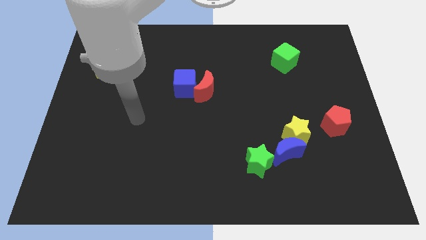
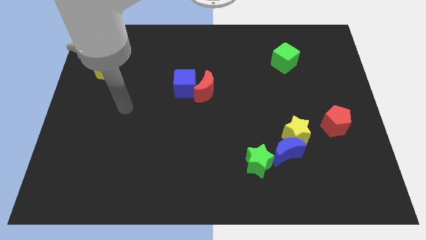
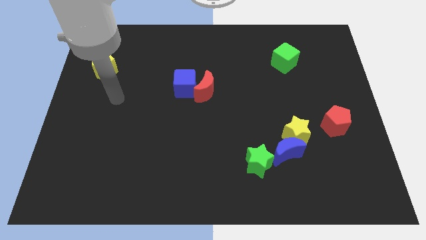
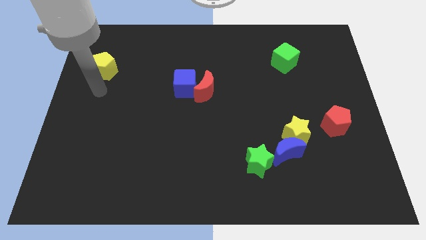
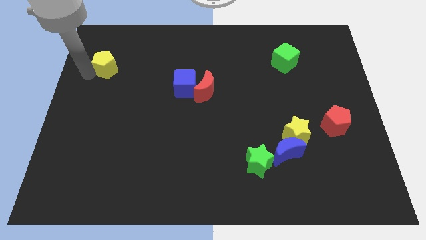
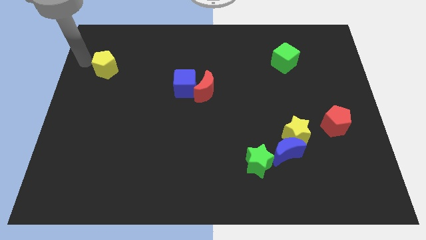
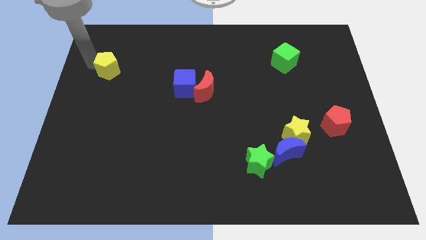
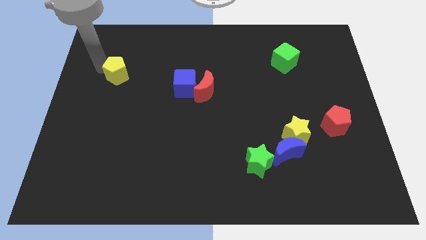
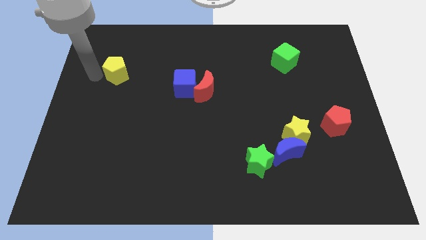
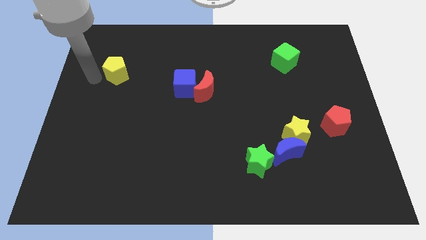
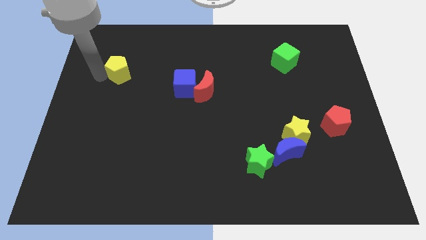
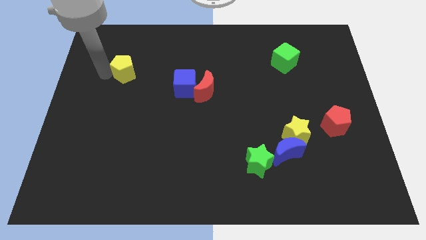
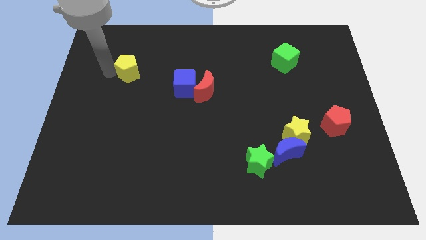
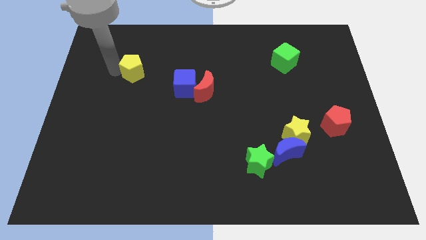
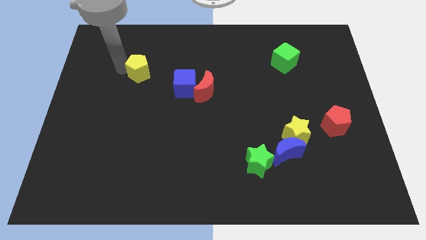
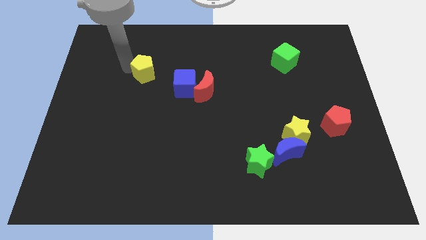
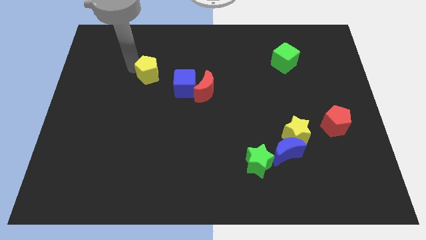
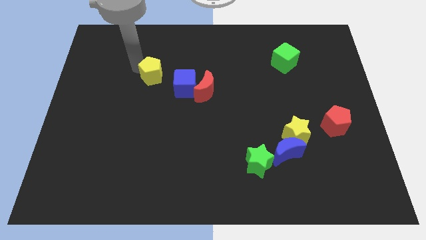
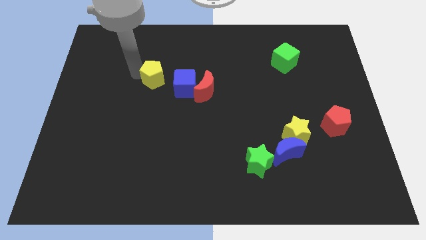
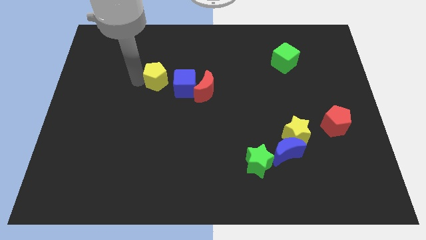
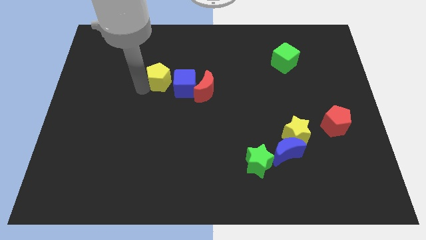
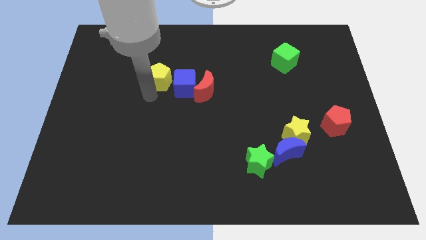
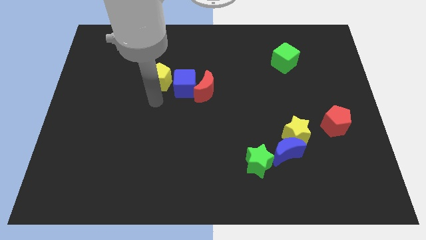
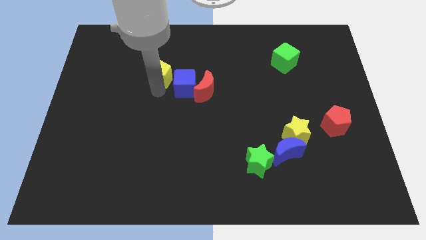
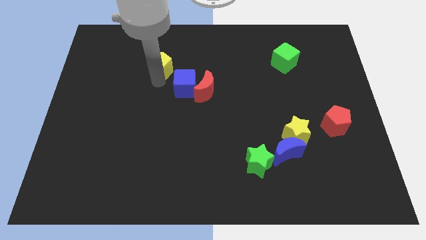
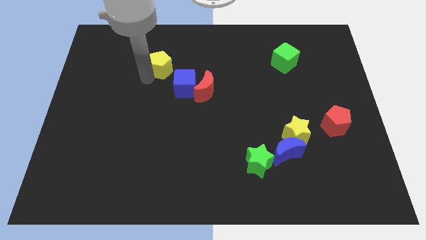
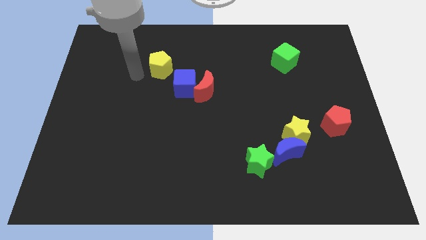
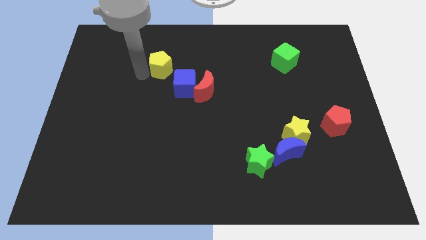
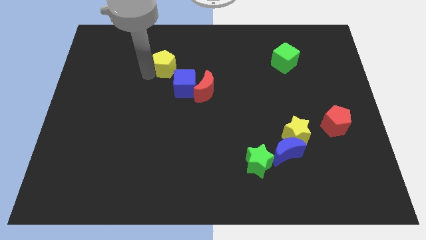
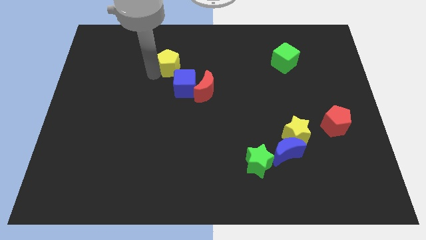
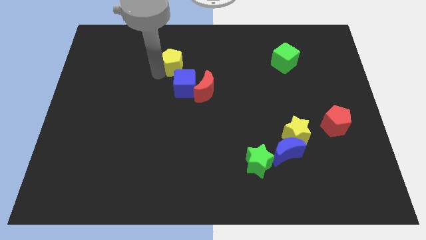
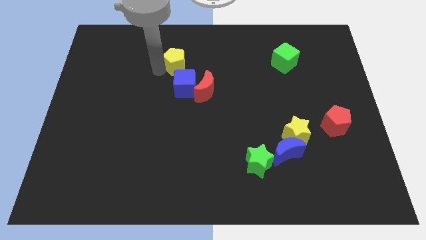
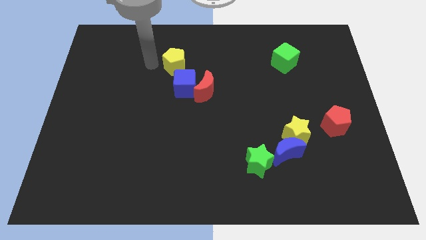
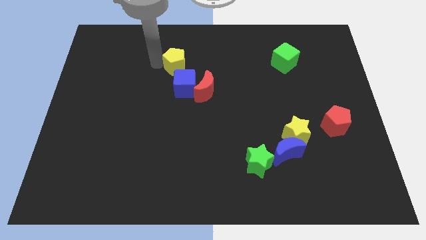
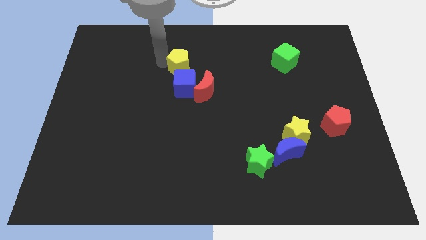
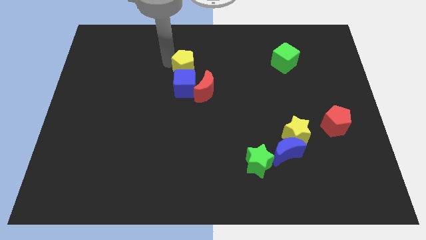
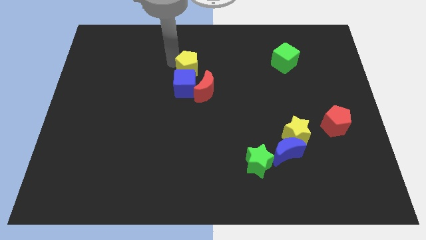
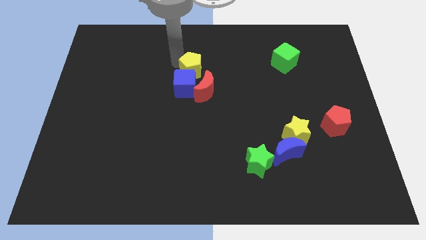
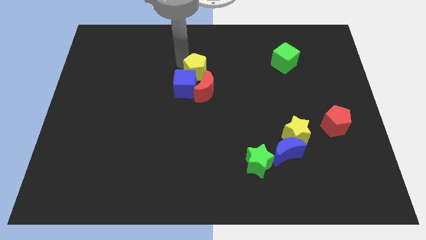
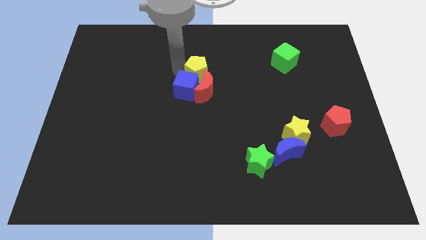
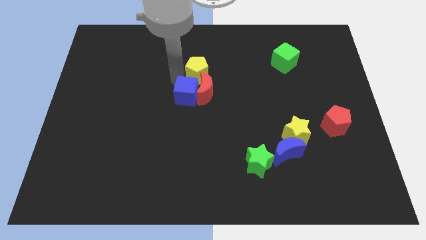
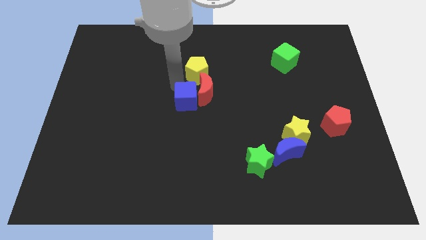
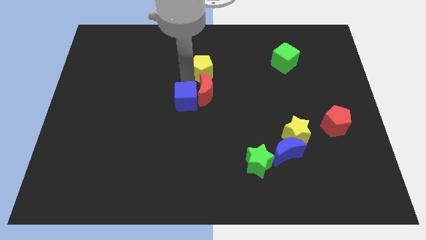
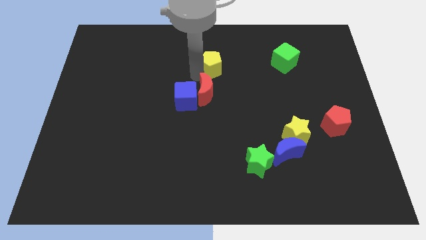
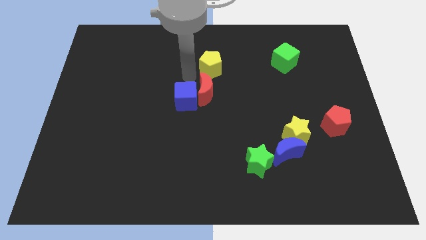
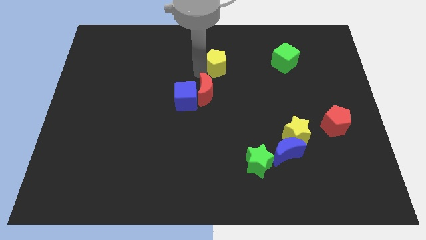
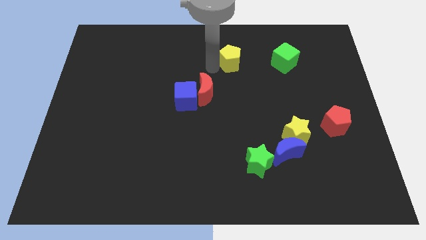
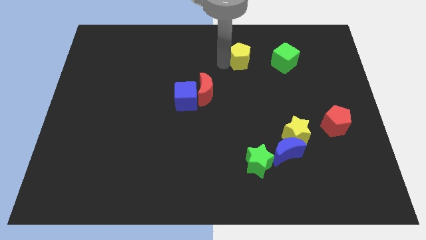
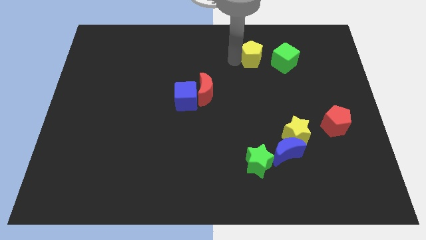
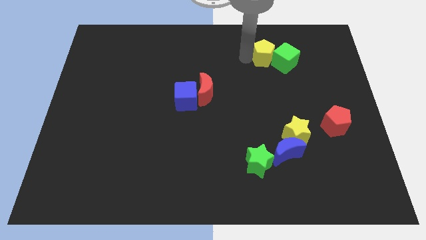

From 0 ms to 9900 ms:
push the yellow pentagon close to the green cube

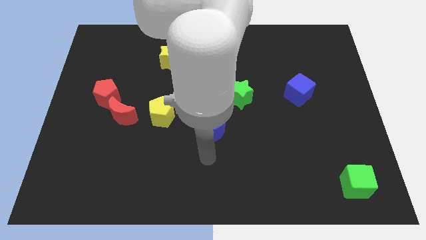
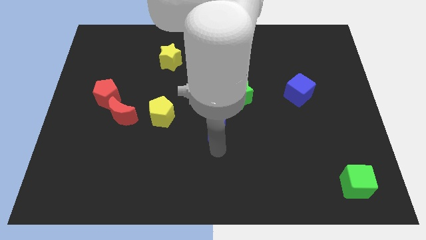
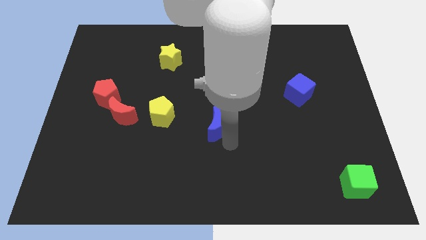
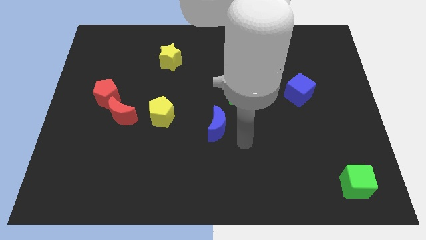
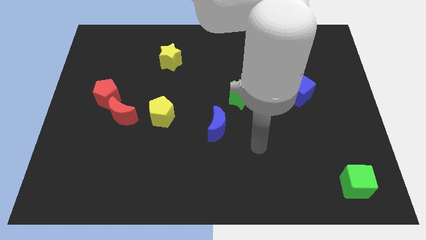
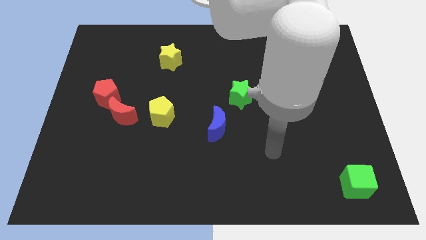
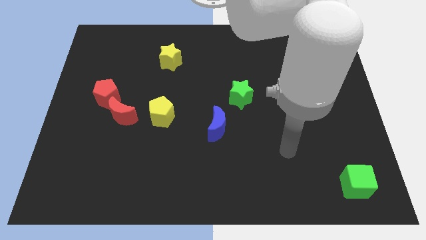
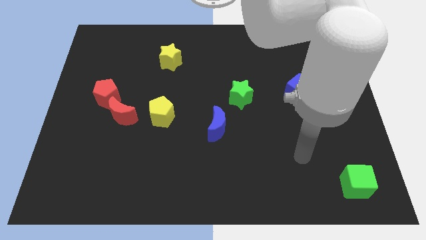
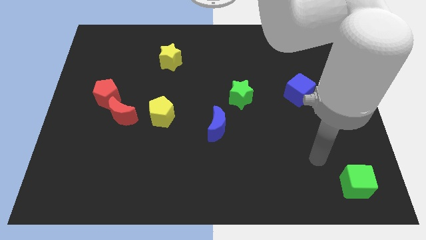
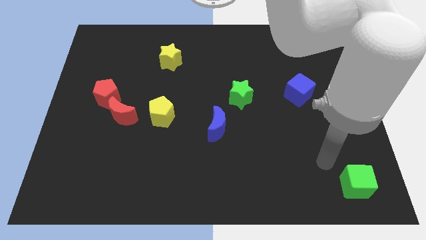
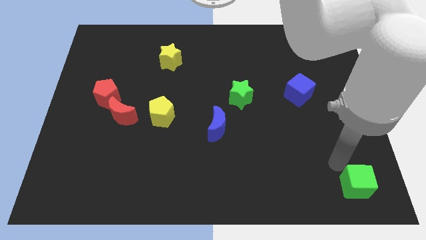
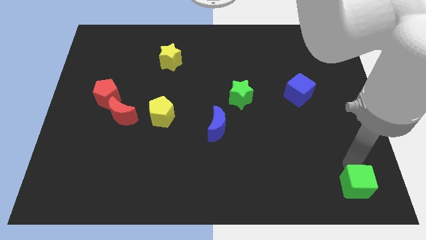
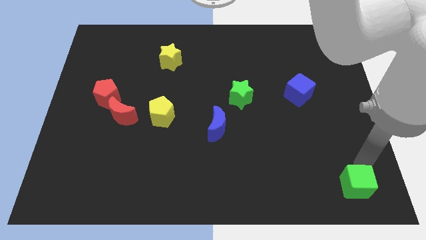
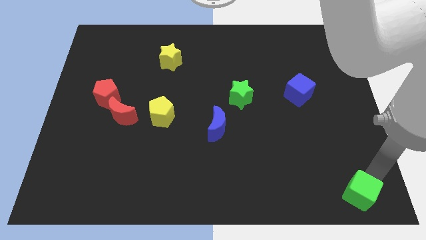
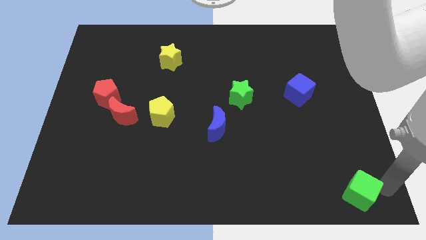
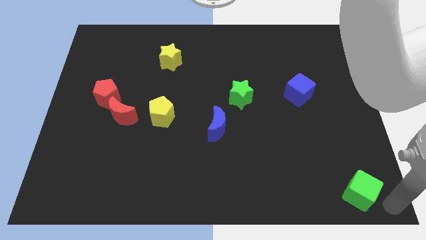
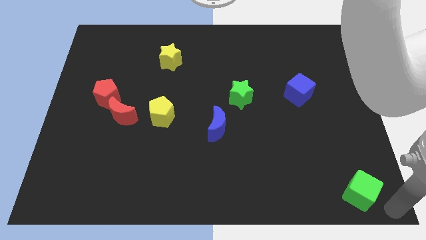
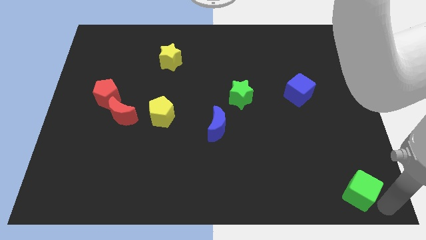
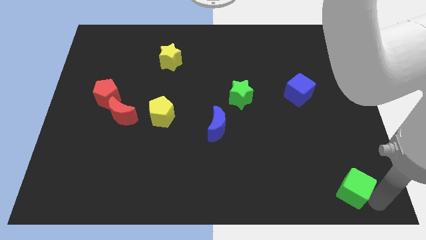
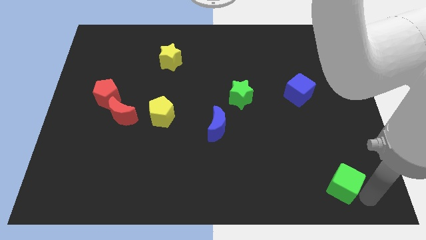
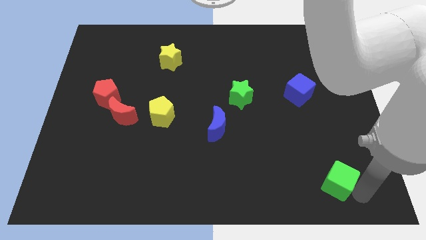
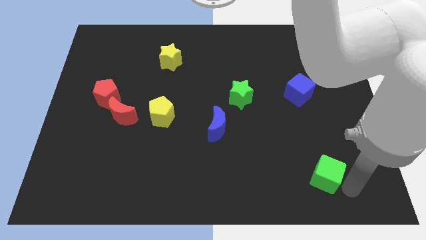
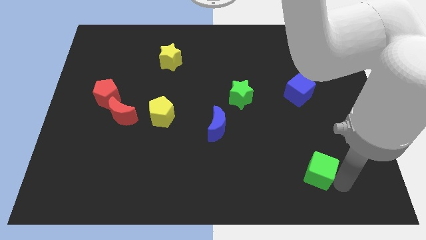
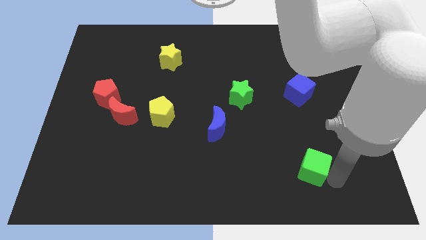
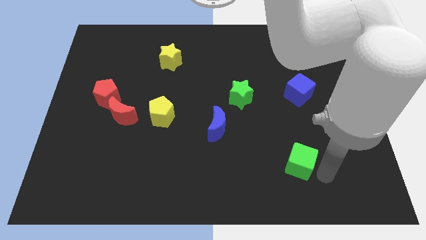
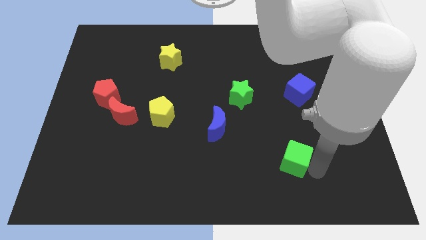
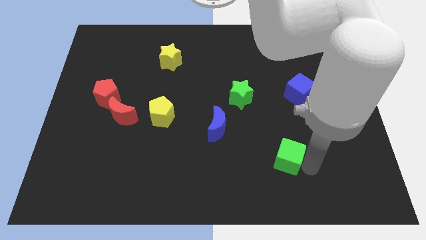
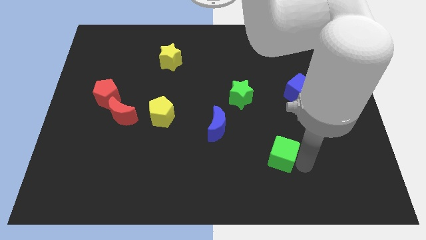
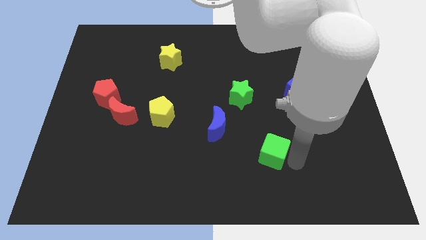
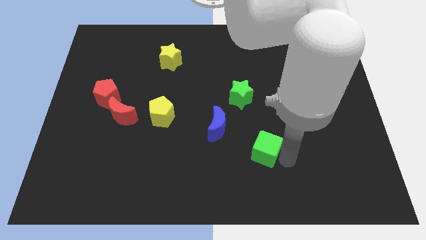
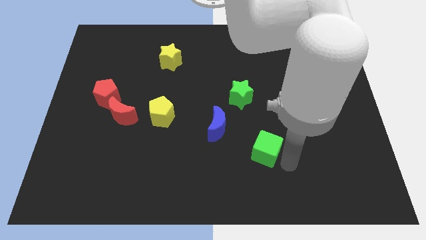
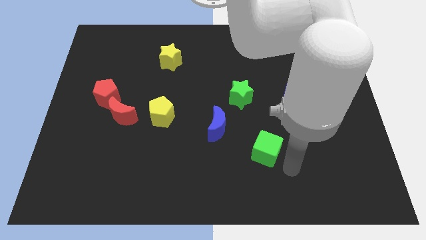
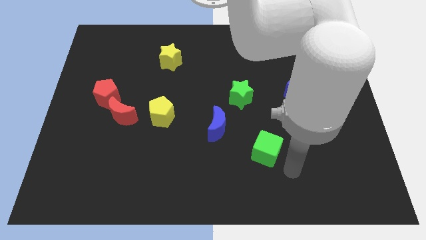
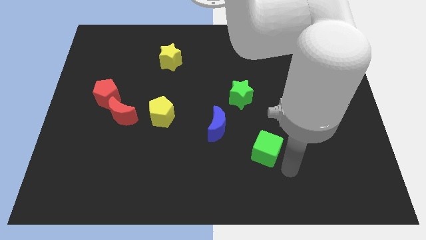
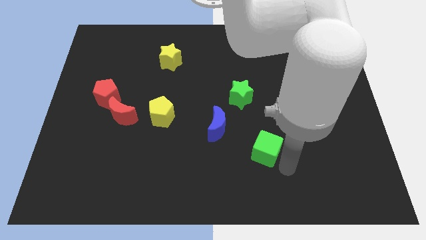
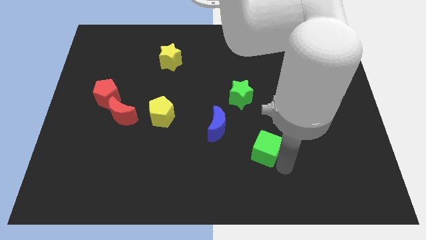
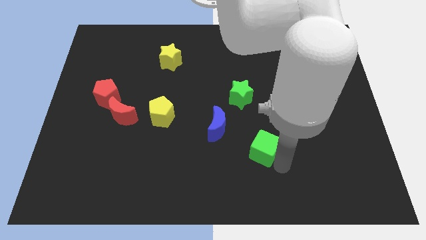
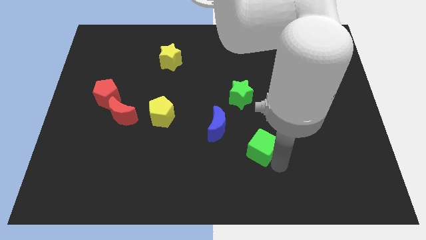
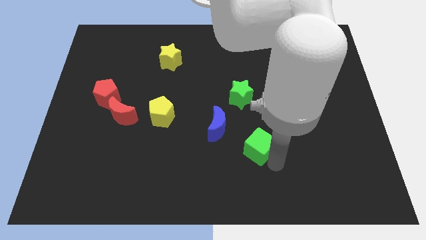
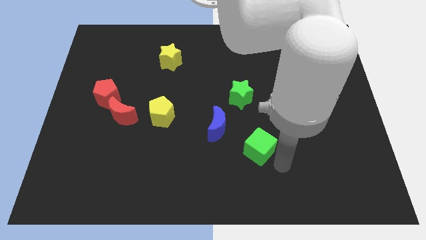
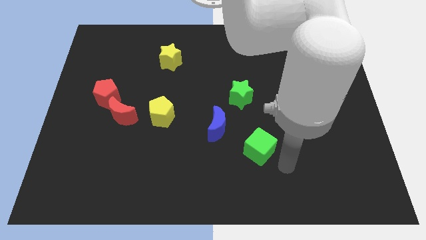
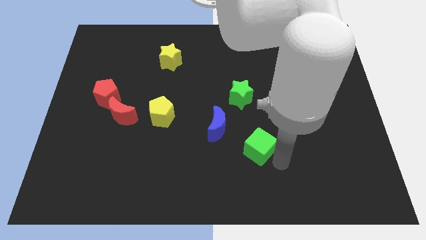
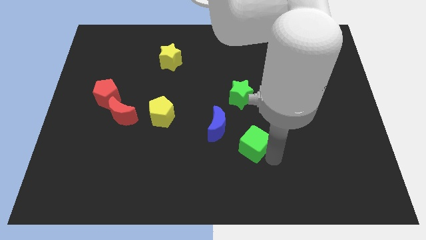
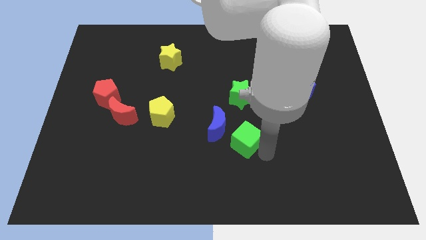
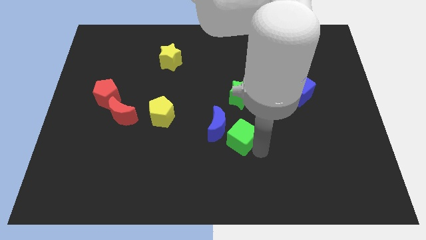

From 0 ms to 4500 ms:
put the green cube close to the blue moon
